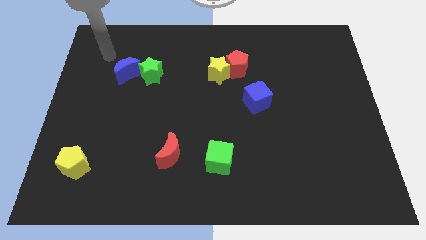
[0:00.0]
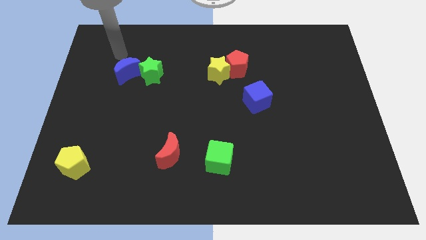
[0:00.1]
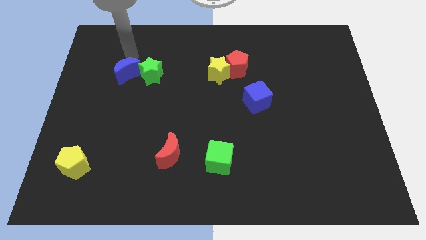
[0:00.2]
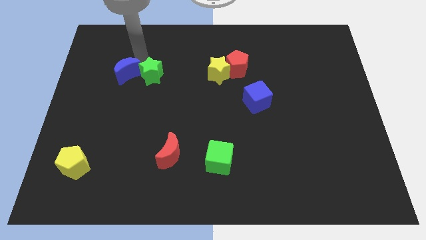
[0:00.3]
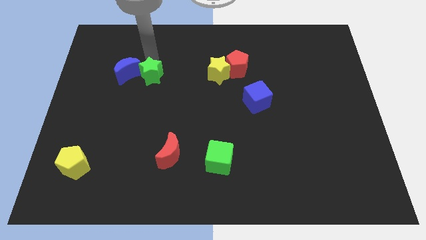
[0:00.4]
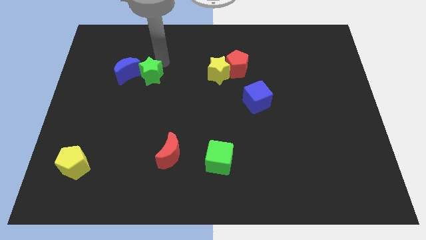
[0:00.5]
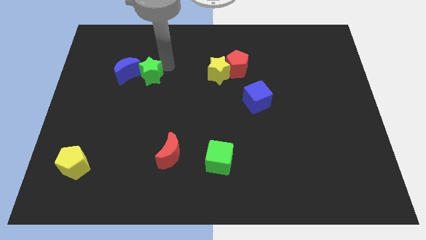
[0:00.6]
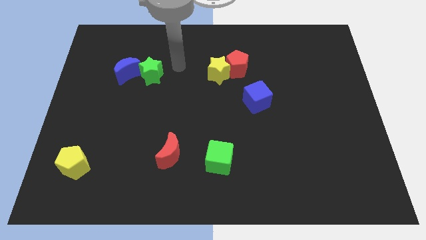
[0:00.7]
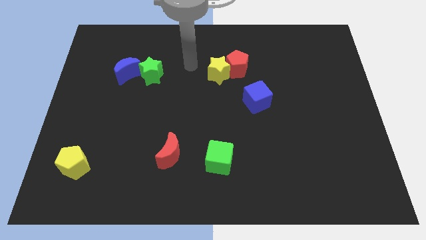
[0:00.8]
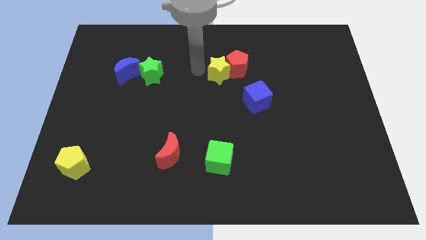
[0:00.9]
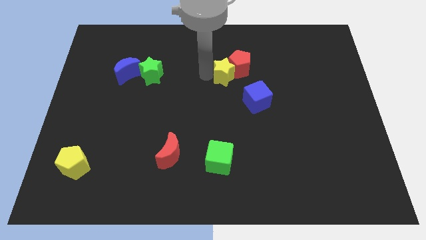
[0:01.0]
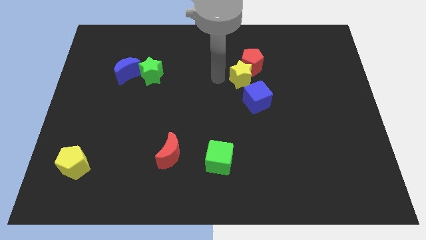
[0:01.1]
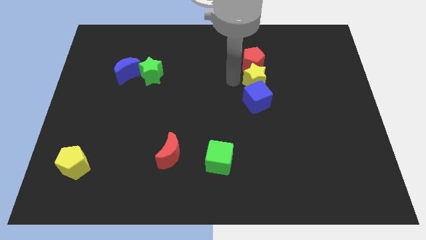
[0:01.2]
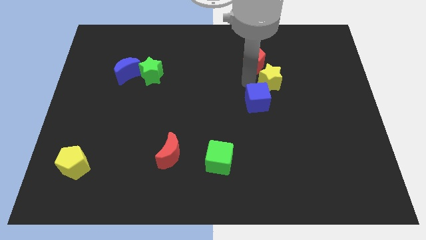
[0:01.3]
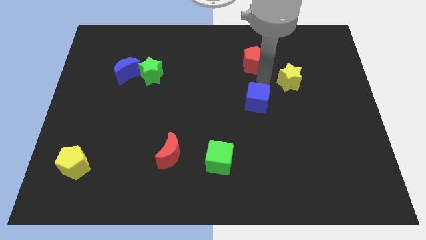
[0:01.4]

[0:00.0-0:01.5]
pull the red pentagon apart from the yellow star

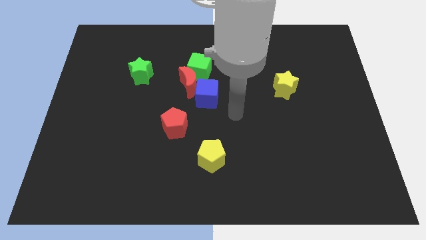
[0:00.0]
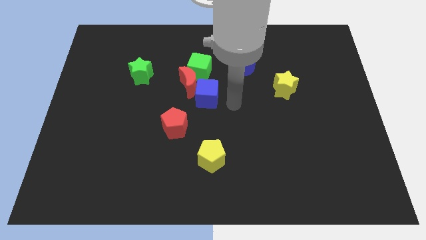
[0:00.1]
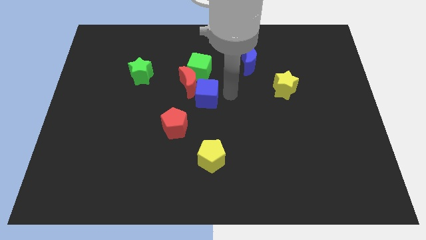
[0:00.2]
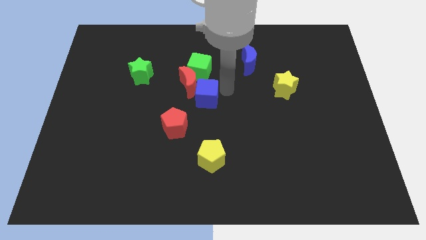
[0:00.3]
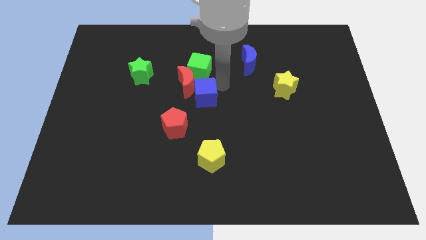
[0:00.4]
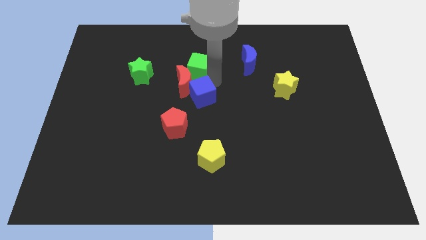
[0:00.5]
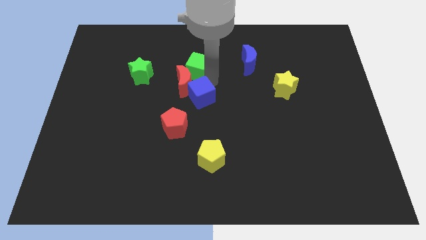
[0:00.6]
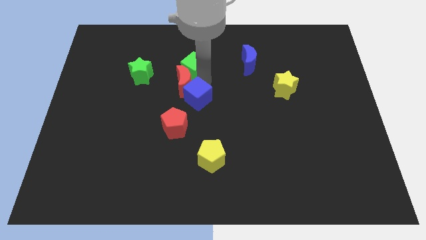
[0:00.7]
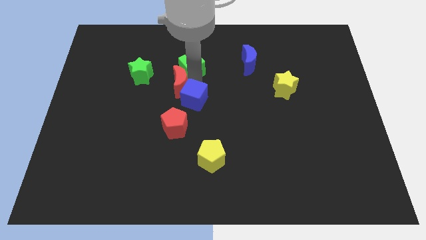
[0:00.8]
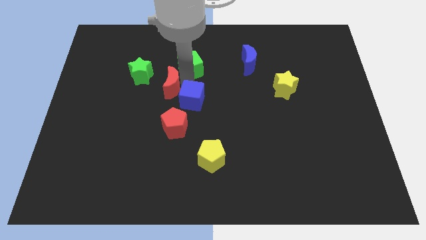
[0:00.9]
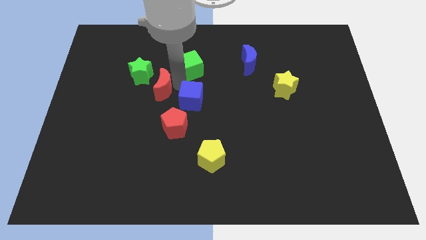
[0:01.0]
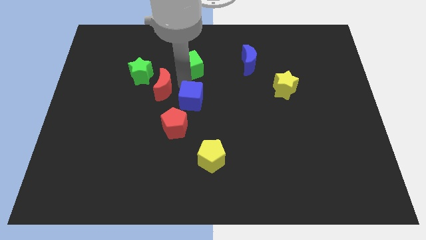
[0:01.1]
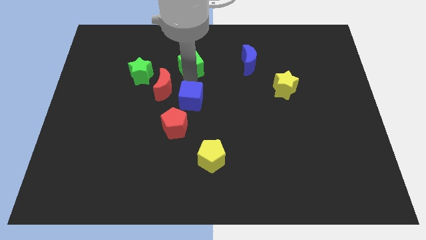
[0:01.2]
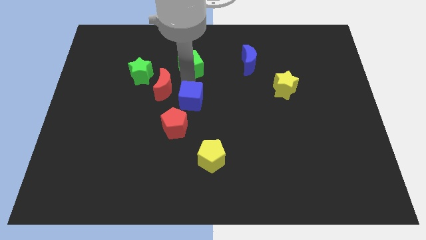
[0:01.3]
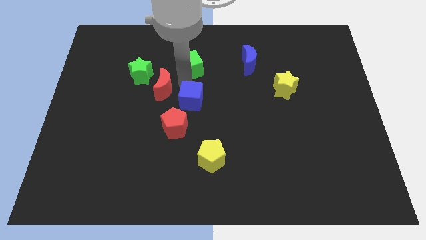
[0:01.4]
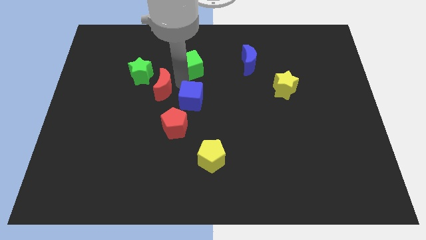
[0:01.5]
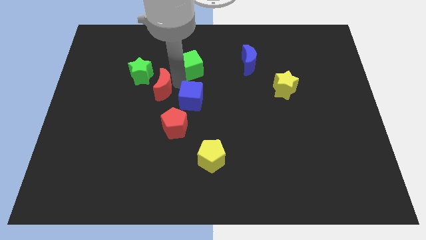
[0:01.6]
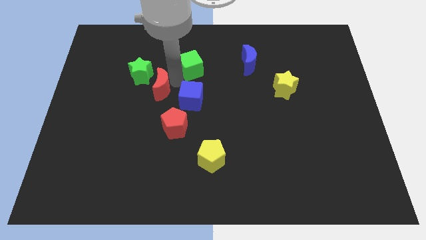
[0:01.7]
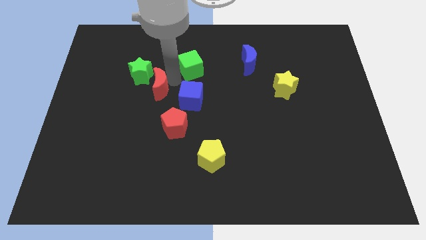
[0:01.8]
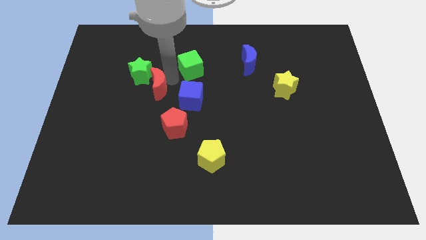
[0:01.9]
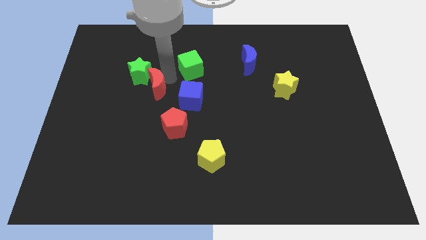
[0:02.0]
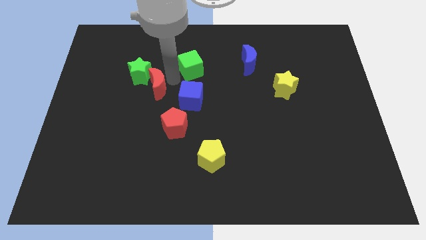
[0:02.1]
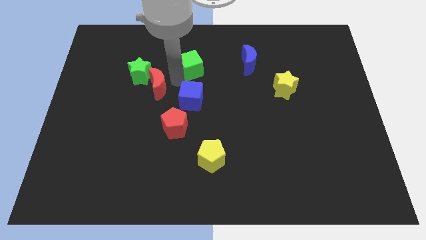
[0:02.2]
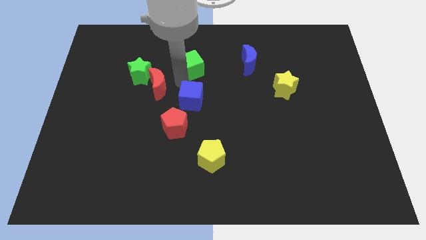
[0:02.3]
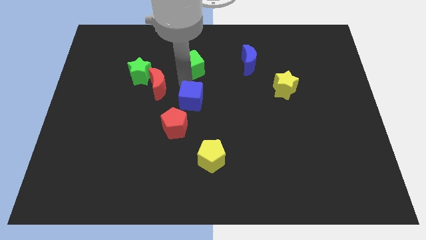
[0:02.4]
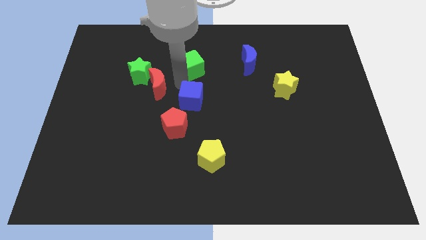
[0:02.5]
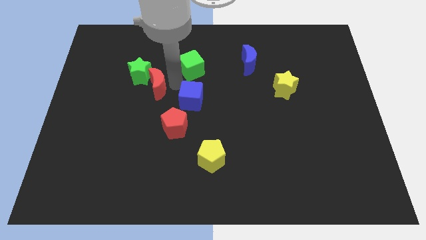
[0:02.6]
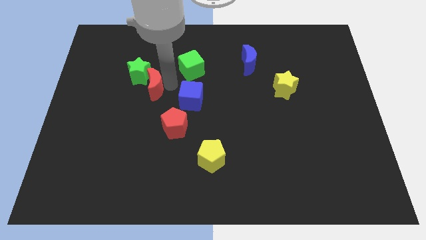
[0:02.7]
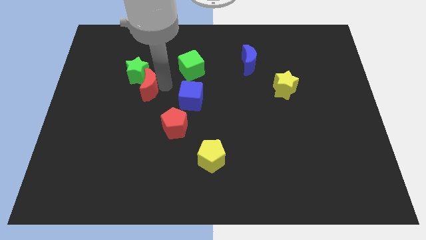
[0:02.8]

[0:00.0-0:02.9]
move the red moon away from the green cube and blue cube

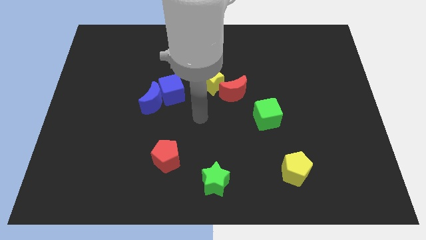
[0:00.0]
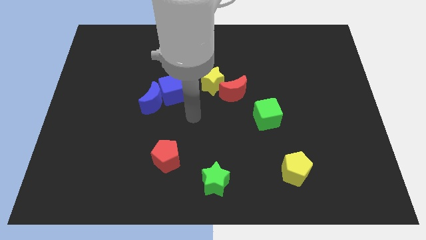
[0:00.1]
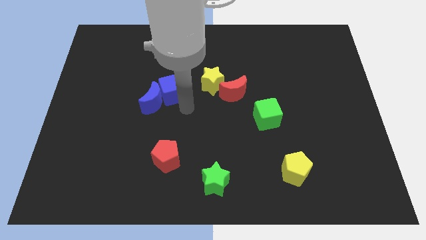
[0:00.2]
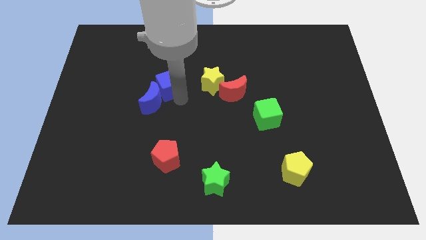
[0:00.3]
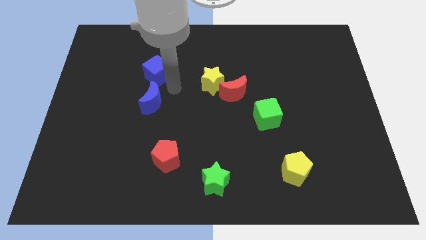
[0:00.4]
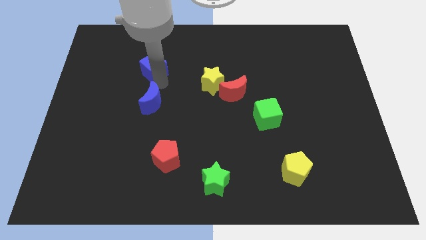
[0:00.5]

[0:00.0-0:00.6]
move the blue moon away from the blue cube

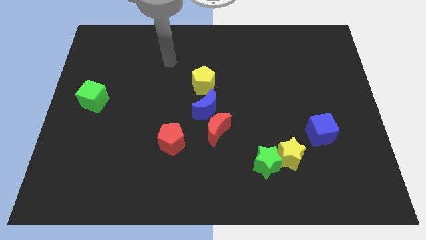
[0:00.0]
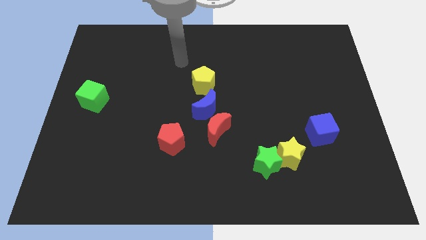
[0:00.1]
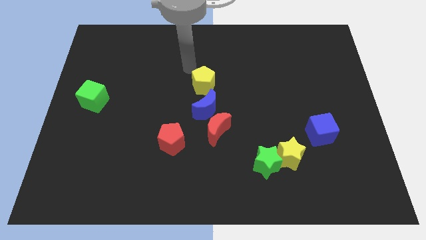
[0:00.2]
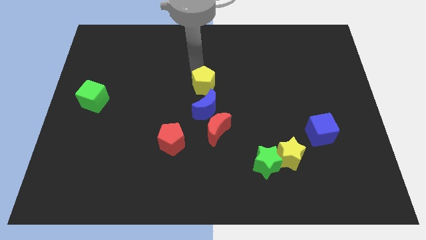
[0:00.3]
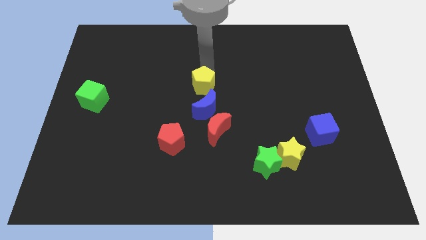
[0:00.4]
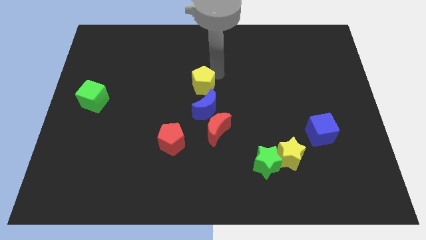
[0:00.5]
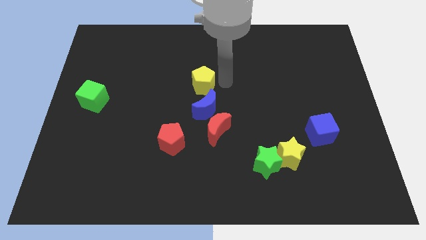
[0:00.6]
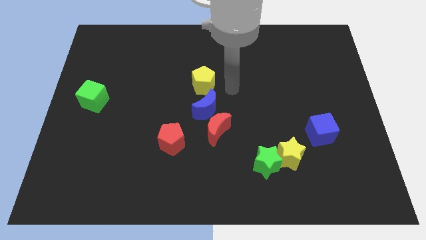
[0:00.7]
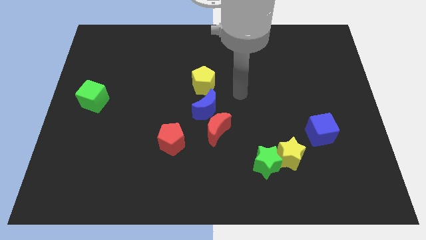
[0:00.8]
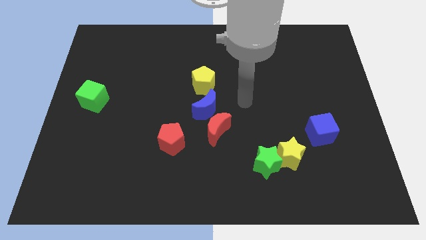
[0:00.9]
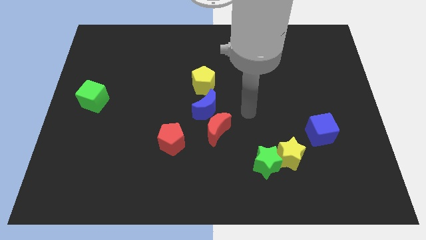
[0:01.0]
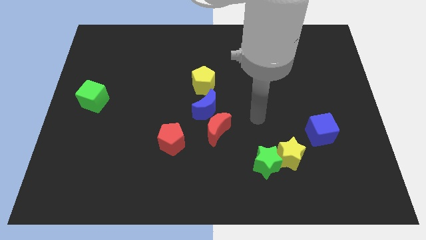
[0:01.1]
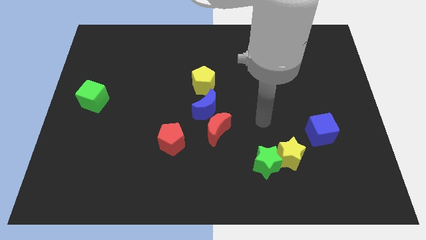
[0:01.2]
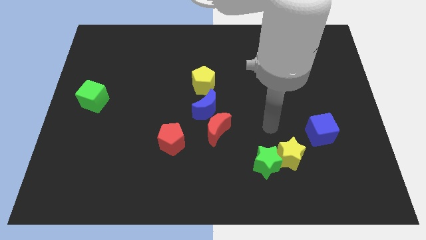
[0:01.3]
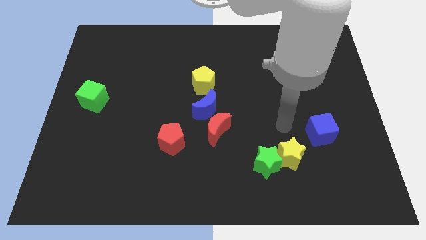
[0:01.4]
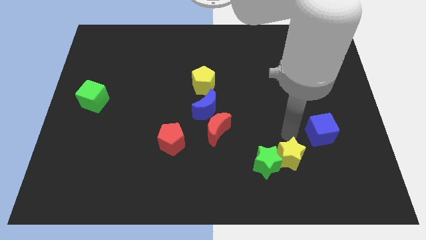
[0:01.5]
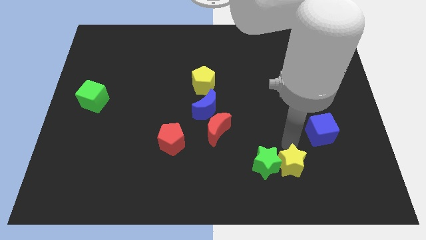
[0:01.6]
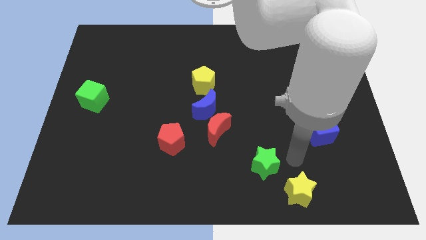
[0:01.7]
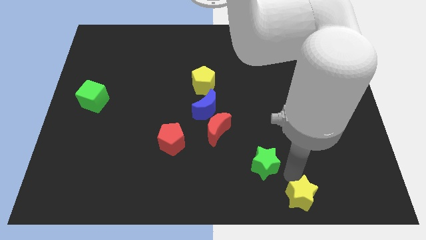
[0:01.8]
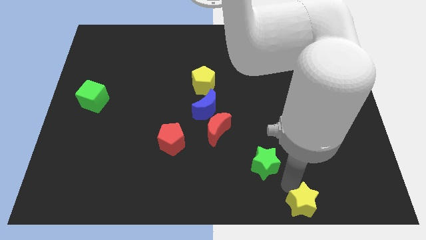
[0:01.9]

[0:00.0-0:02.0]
pull the green star apart from the yellow star

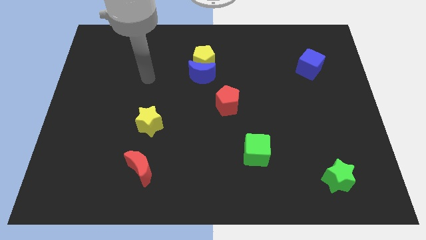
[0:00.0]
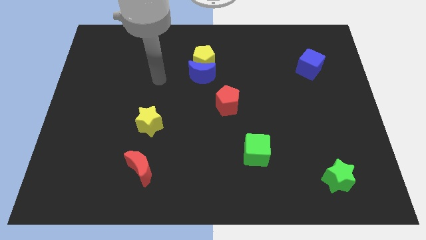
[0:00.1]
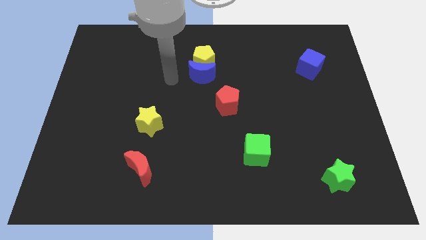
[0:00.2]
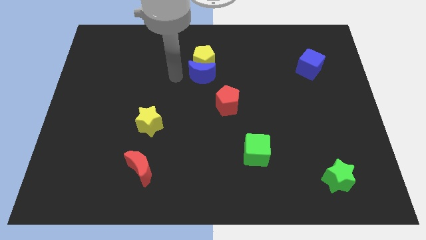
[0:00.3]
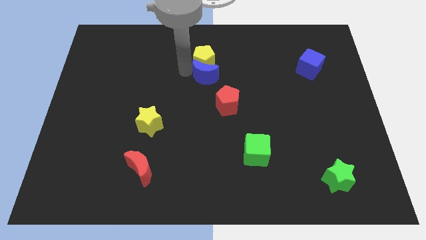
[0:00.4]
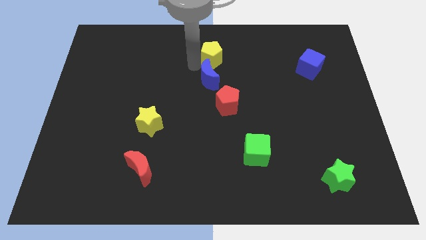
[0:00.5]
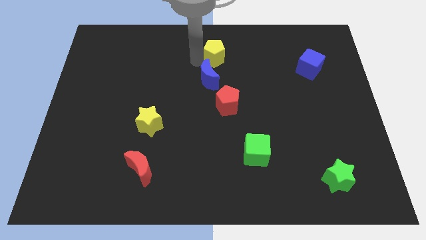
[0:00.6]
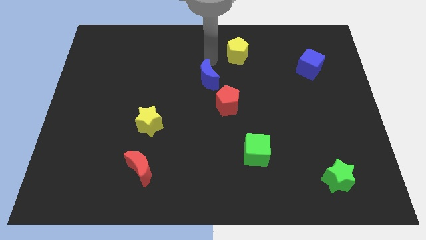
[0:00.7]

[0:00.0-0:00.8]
separate the blue moon from the yellow pentagon

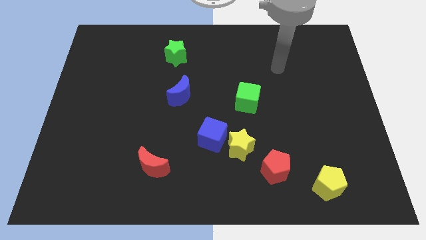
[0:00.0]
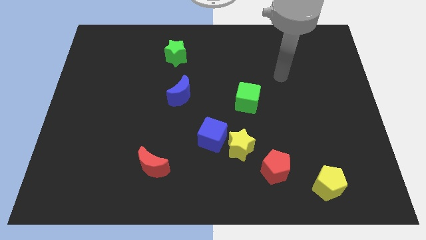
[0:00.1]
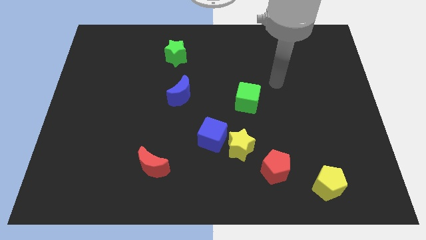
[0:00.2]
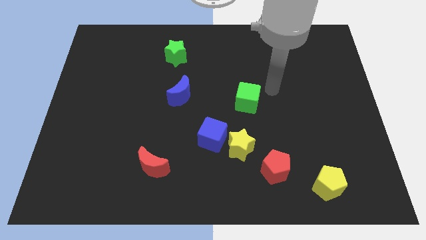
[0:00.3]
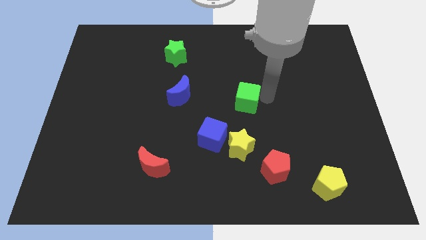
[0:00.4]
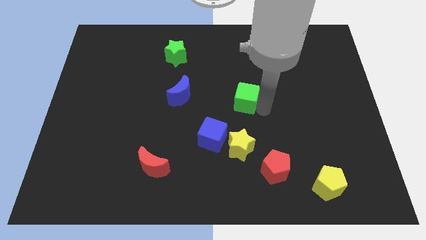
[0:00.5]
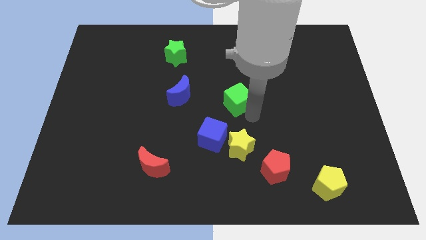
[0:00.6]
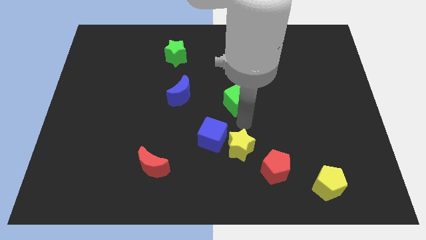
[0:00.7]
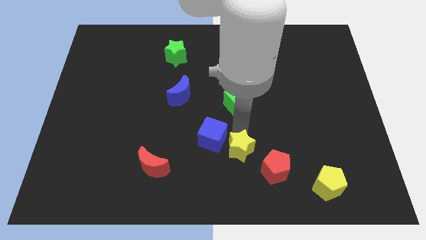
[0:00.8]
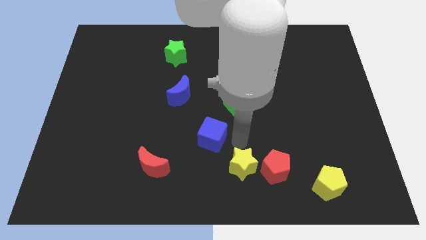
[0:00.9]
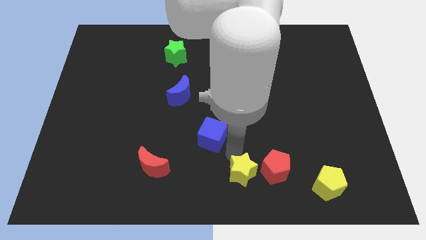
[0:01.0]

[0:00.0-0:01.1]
move the blue cube away from the yellow star

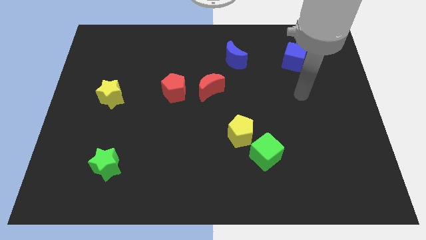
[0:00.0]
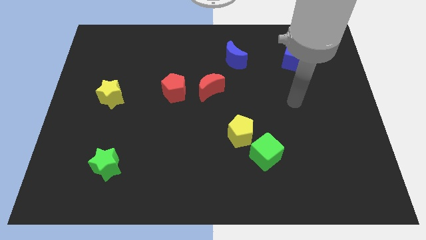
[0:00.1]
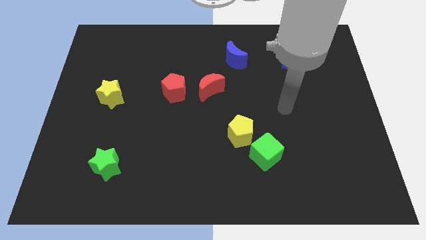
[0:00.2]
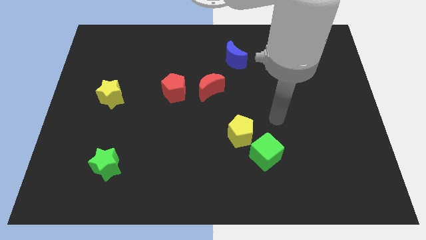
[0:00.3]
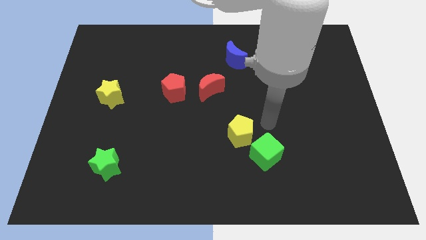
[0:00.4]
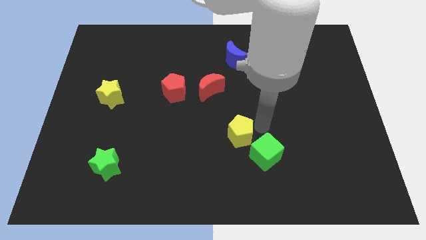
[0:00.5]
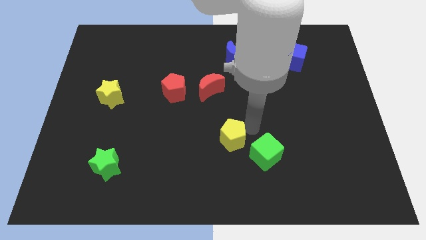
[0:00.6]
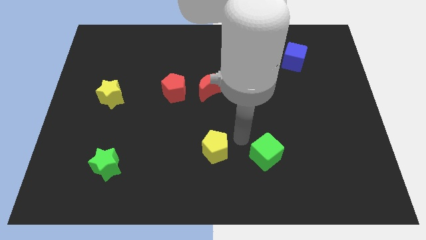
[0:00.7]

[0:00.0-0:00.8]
pull the green cube apart from the yellow pentagon
